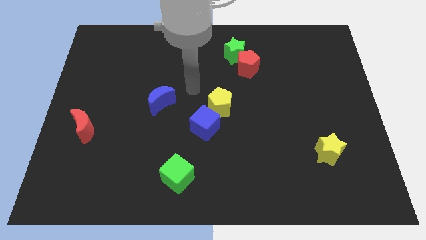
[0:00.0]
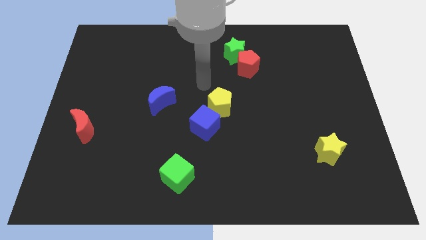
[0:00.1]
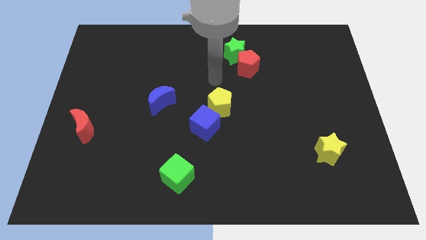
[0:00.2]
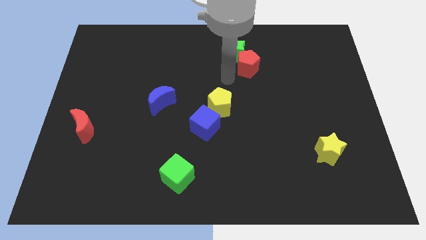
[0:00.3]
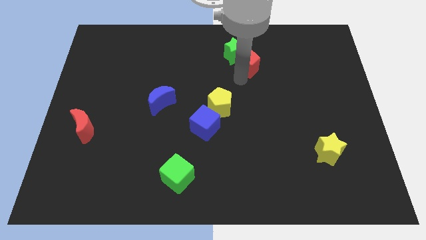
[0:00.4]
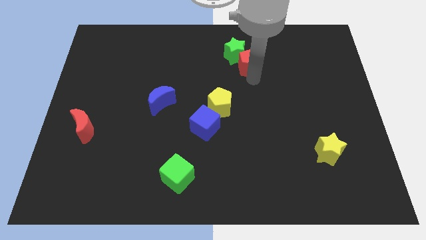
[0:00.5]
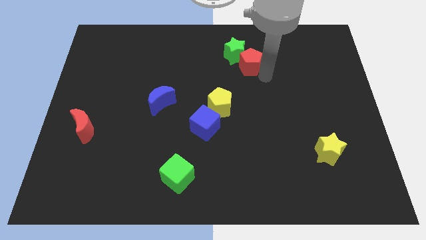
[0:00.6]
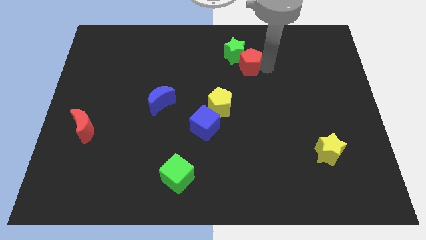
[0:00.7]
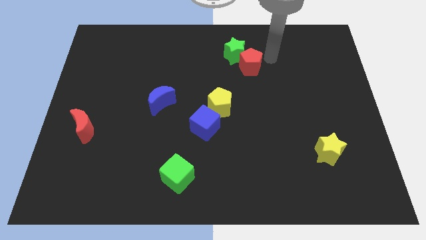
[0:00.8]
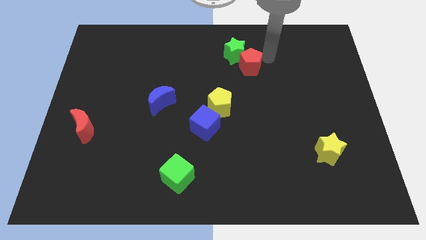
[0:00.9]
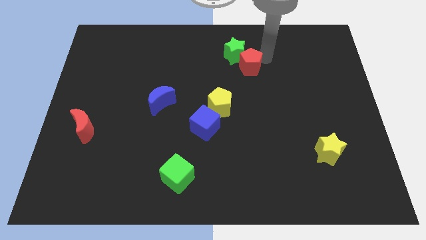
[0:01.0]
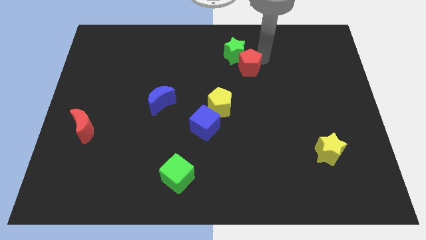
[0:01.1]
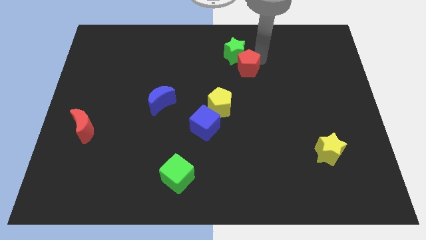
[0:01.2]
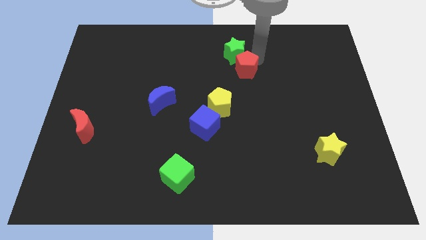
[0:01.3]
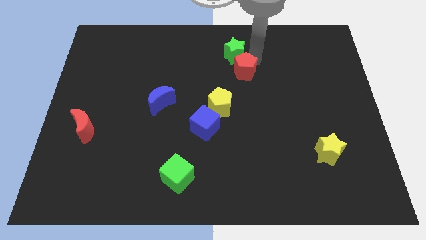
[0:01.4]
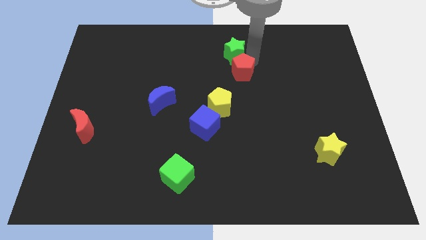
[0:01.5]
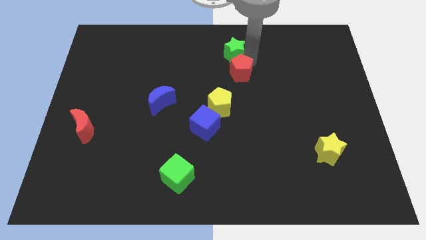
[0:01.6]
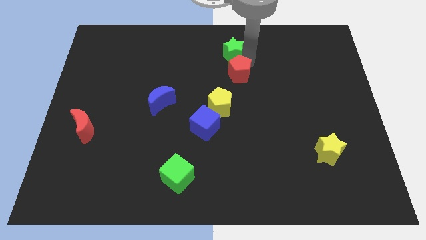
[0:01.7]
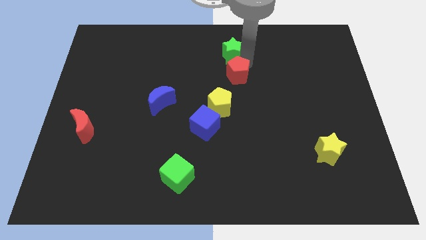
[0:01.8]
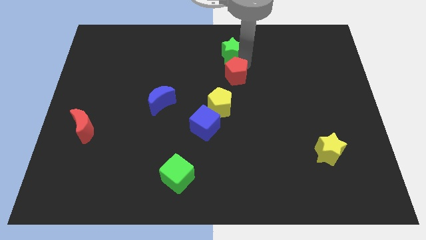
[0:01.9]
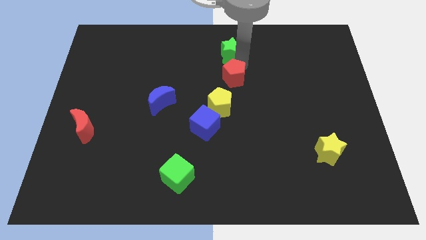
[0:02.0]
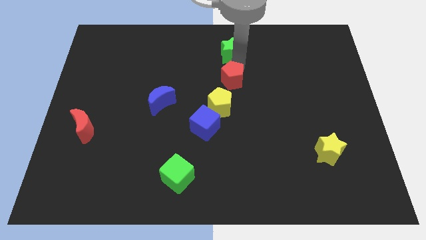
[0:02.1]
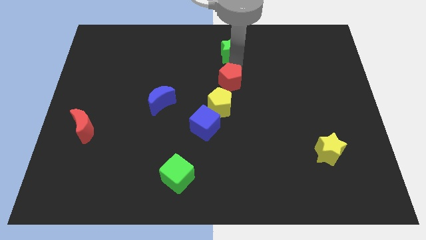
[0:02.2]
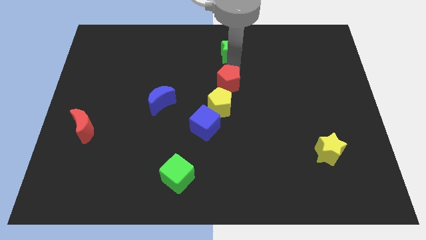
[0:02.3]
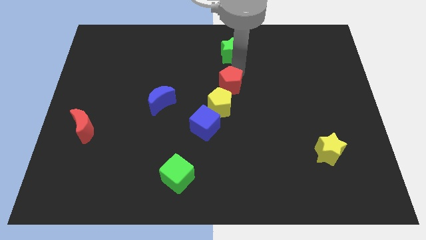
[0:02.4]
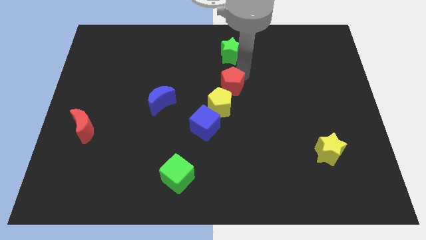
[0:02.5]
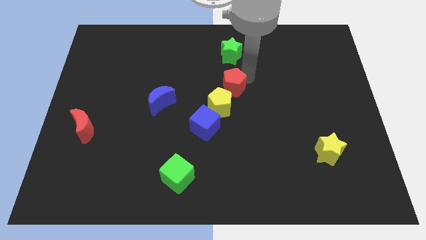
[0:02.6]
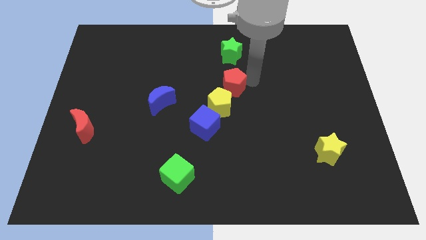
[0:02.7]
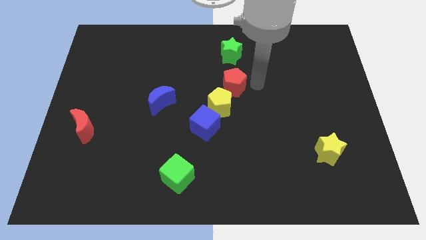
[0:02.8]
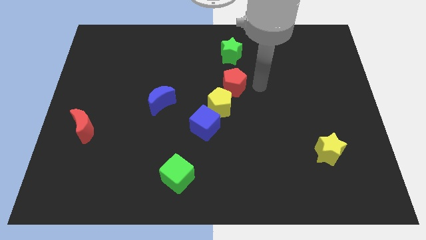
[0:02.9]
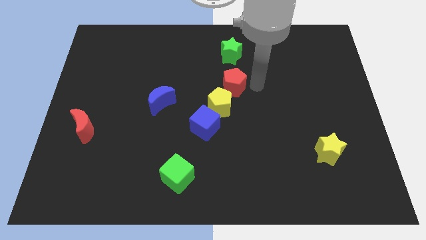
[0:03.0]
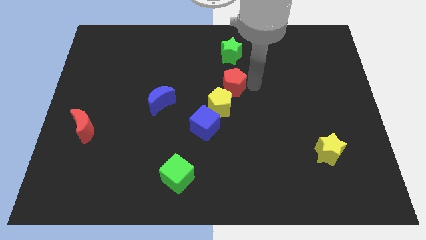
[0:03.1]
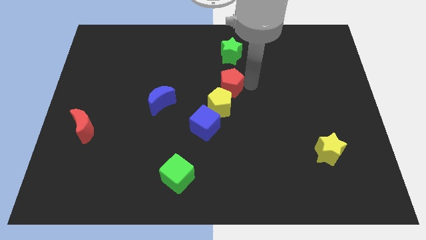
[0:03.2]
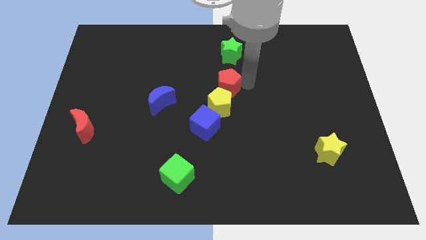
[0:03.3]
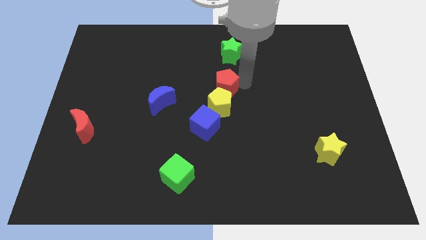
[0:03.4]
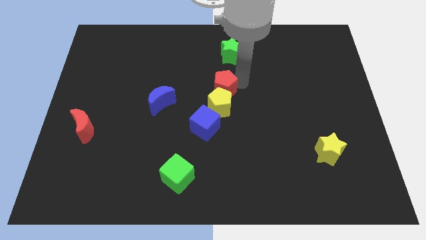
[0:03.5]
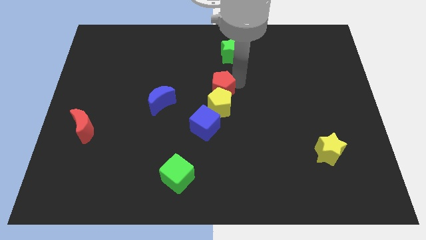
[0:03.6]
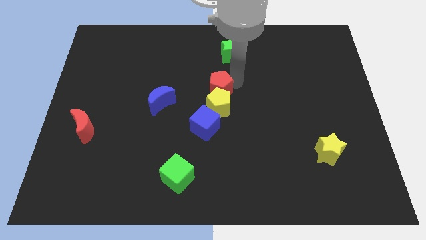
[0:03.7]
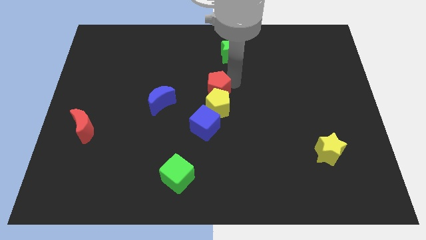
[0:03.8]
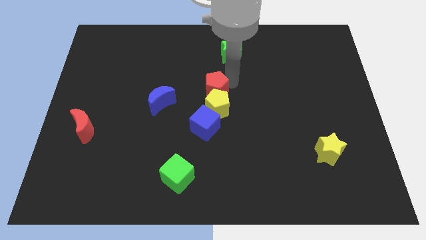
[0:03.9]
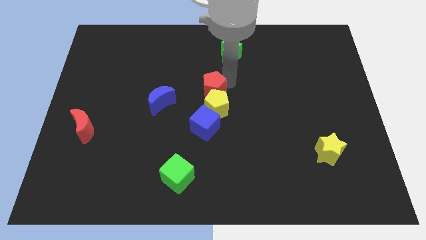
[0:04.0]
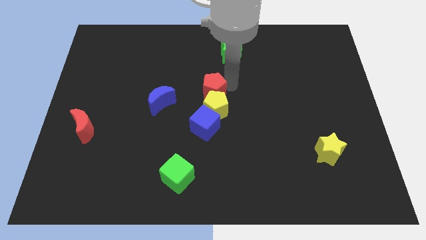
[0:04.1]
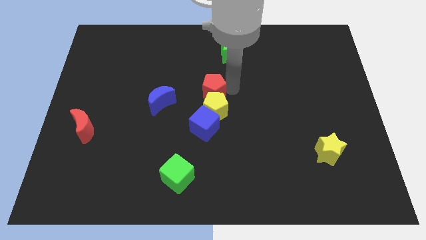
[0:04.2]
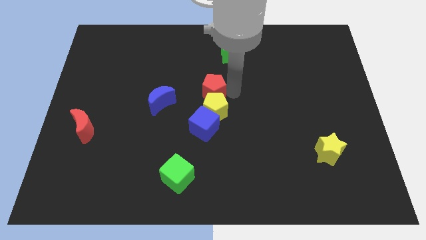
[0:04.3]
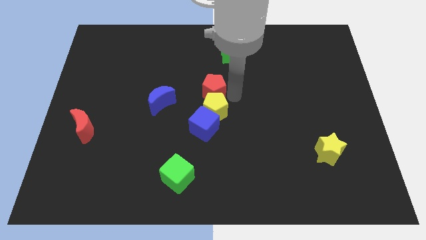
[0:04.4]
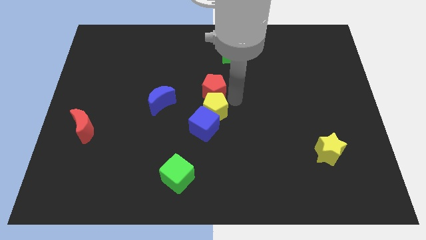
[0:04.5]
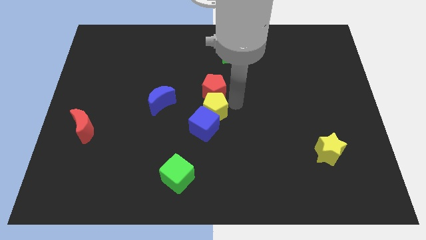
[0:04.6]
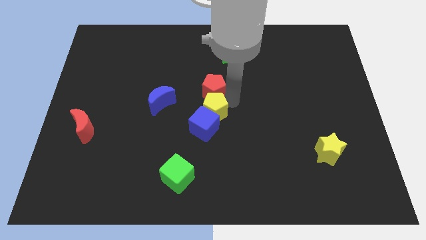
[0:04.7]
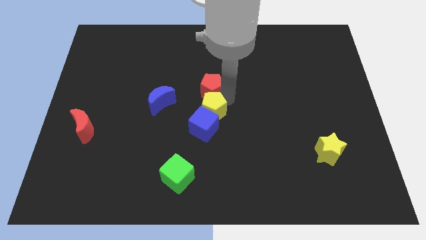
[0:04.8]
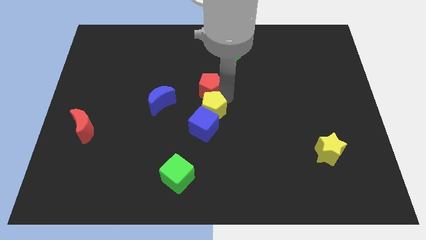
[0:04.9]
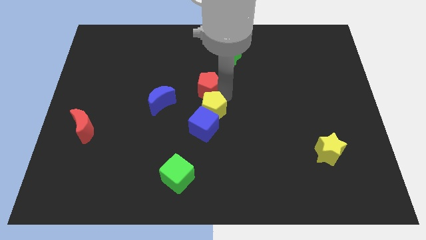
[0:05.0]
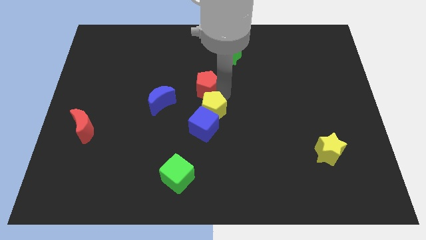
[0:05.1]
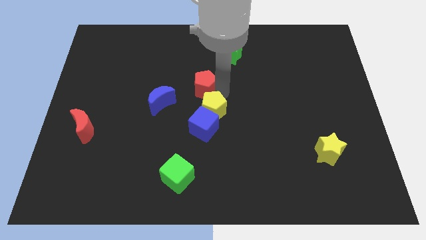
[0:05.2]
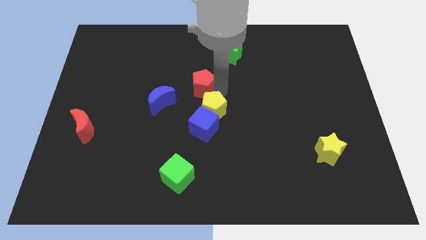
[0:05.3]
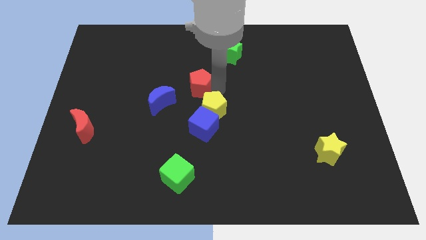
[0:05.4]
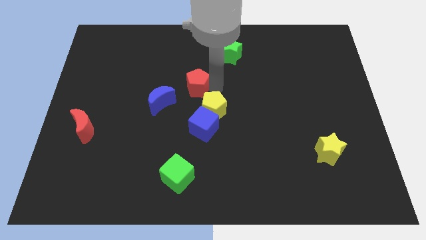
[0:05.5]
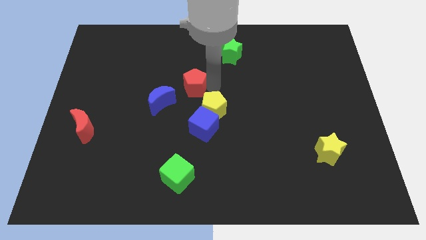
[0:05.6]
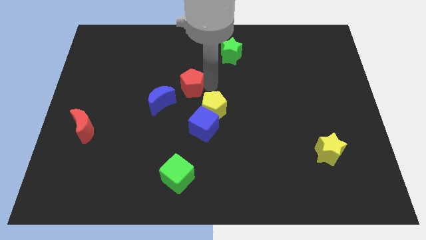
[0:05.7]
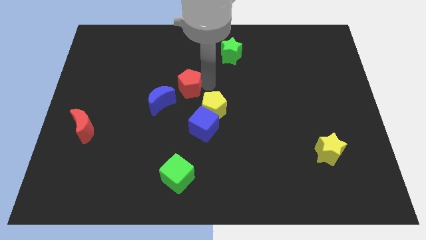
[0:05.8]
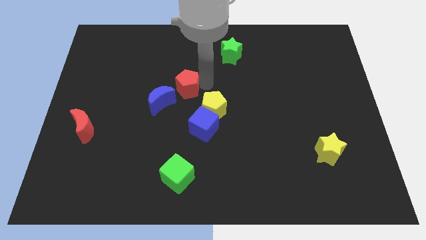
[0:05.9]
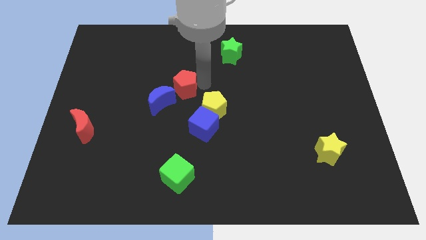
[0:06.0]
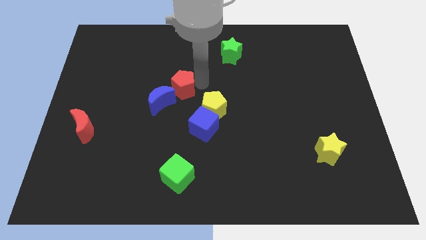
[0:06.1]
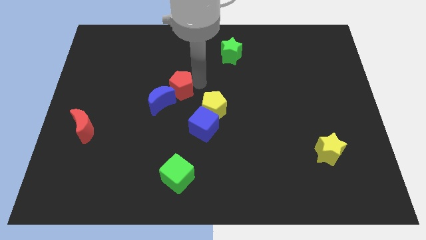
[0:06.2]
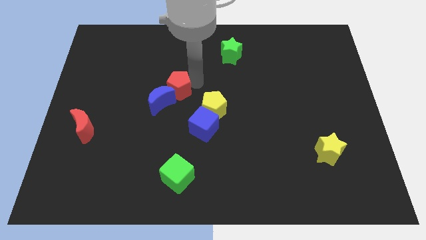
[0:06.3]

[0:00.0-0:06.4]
slide the red pentagon towards the blue moon

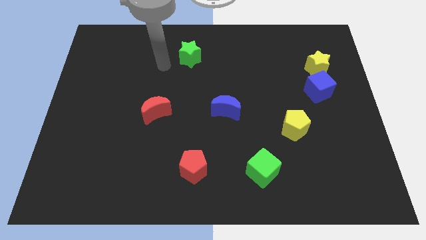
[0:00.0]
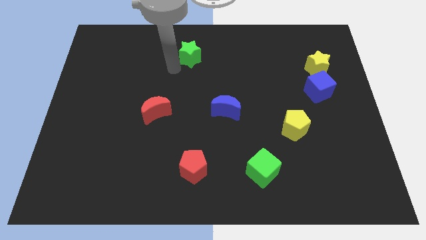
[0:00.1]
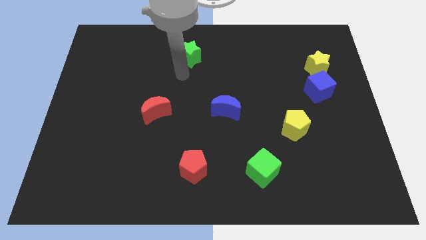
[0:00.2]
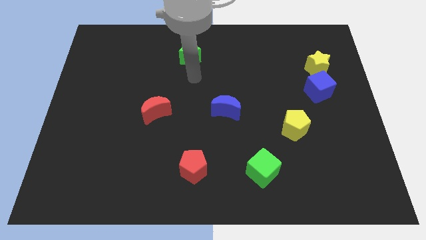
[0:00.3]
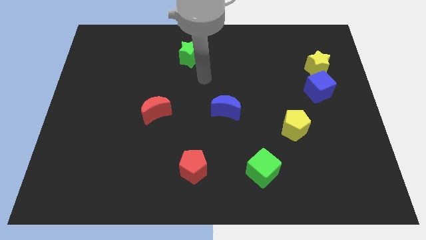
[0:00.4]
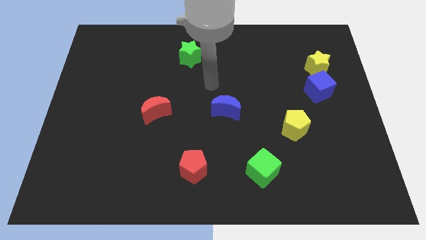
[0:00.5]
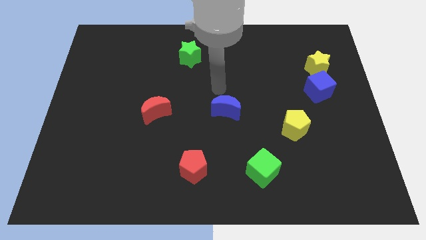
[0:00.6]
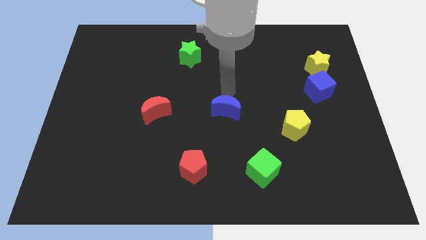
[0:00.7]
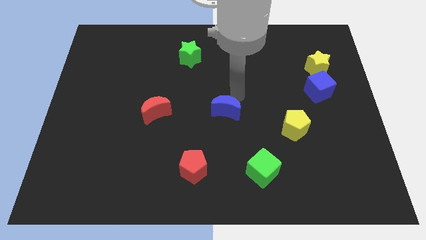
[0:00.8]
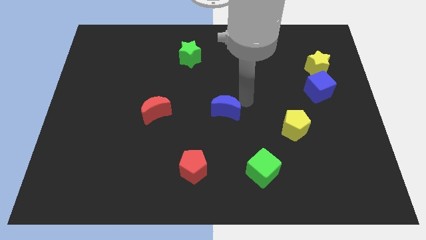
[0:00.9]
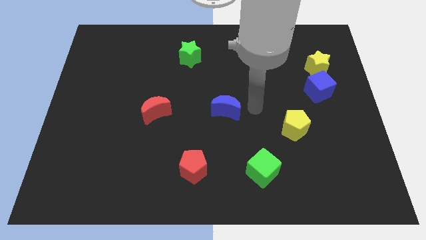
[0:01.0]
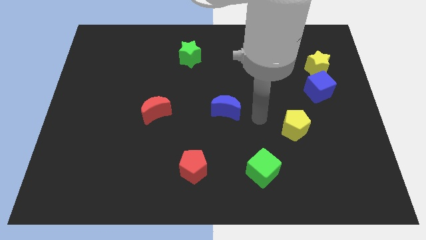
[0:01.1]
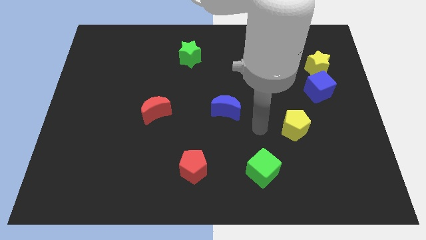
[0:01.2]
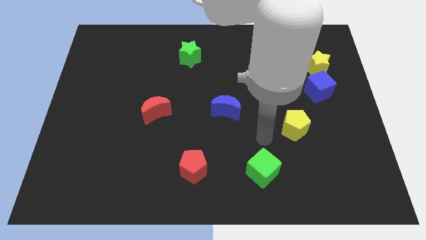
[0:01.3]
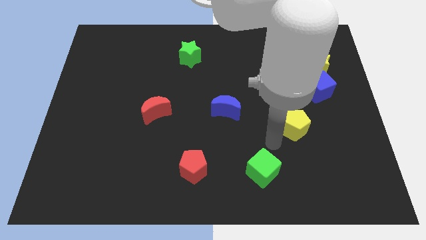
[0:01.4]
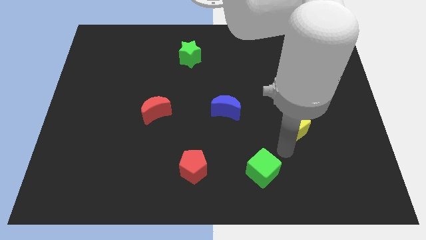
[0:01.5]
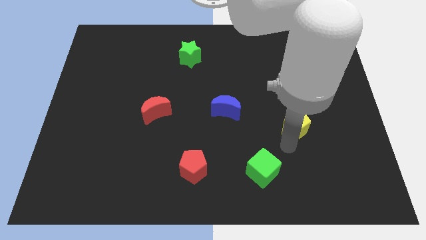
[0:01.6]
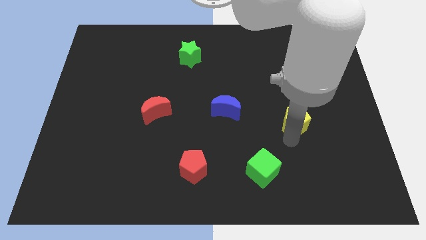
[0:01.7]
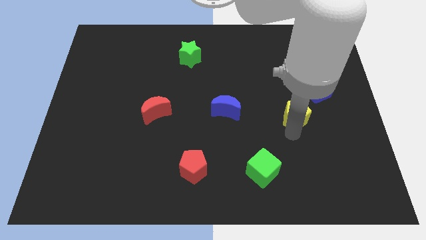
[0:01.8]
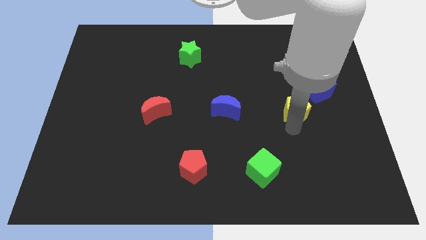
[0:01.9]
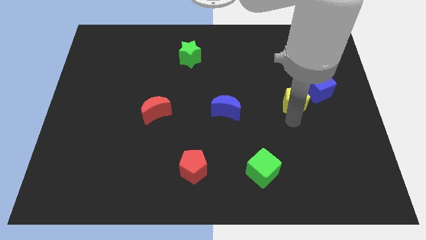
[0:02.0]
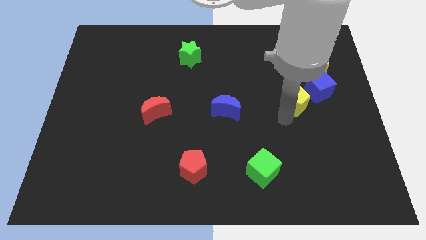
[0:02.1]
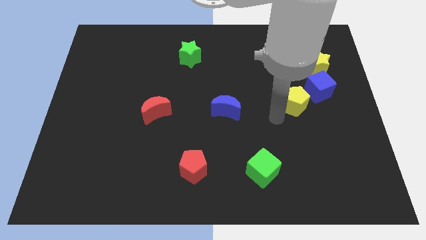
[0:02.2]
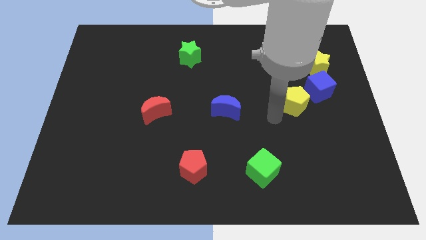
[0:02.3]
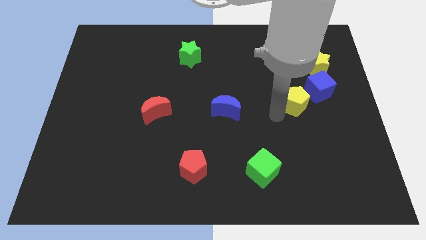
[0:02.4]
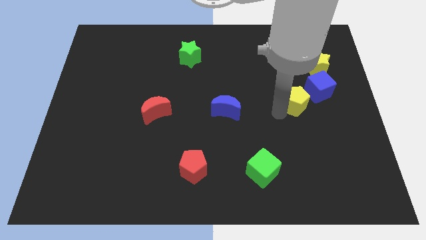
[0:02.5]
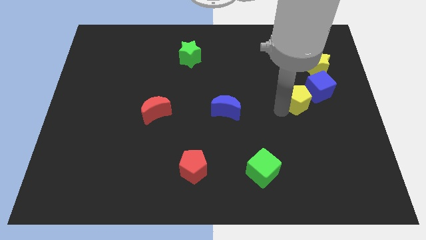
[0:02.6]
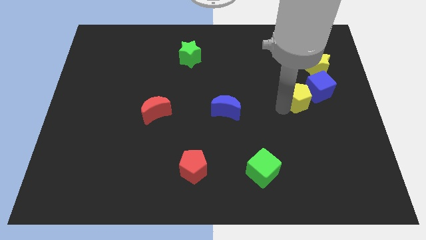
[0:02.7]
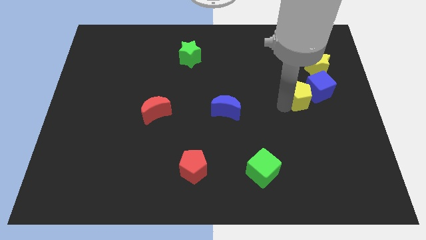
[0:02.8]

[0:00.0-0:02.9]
slide the yellow pentagon to the blue cube
